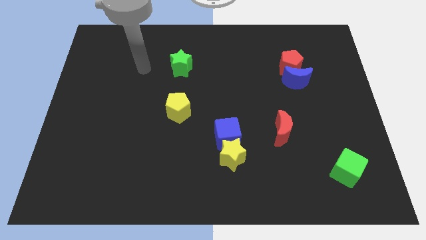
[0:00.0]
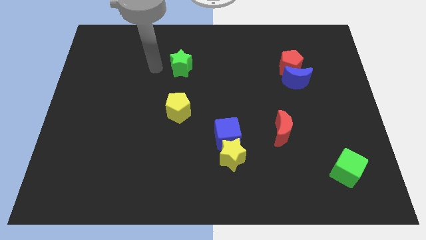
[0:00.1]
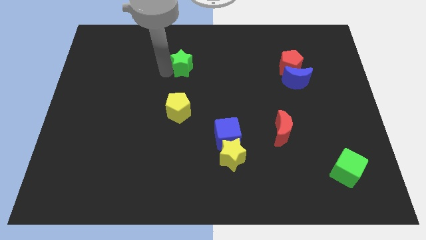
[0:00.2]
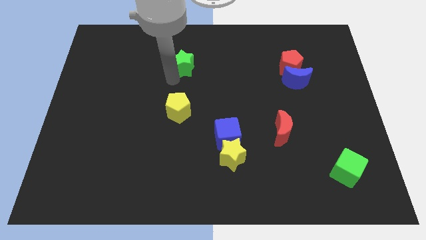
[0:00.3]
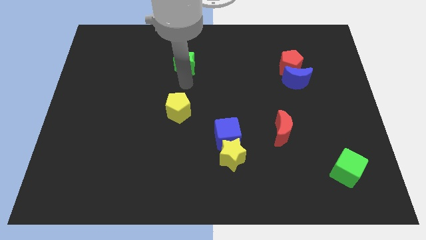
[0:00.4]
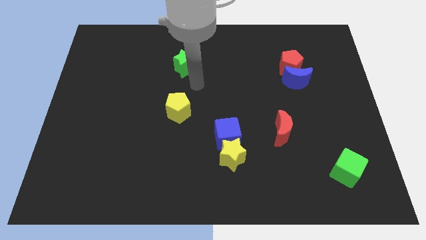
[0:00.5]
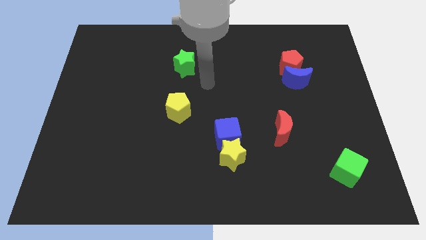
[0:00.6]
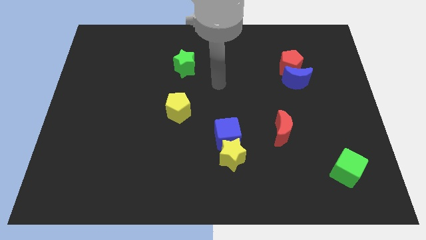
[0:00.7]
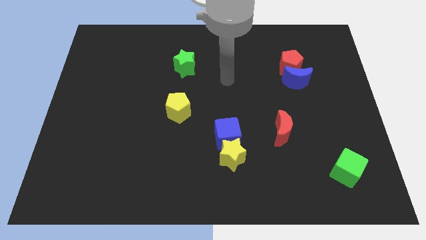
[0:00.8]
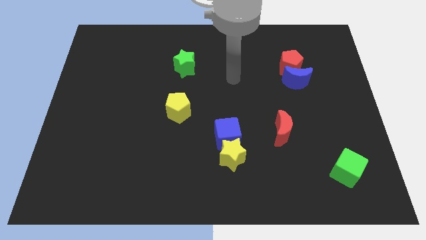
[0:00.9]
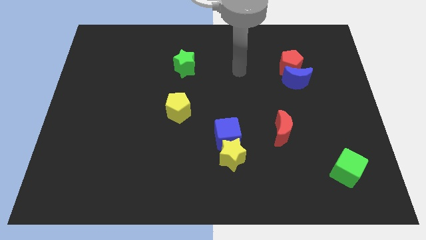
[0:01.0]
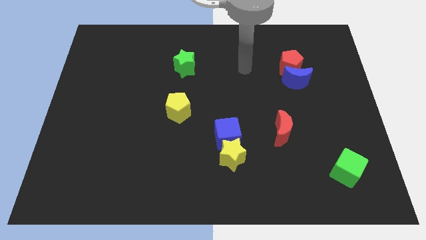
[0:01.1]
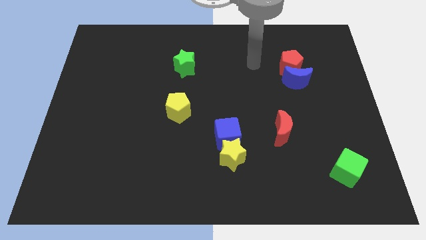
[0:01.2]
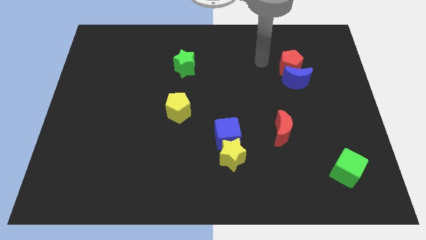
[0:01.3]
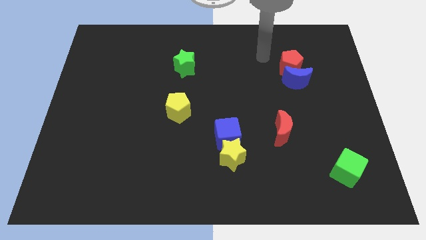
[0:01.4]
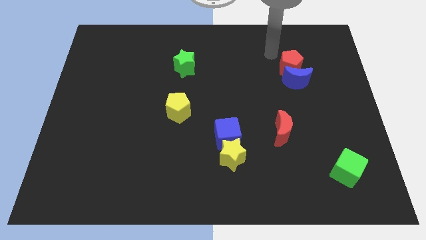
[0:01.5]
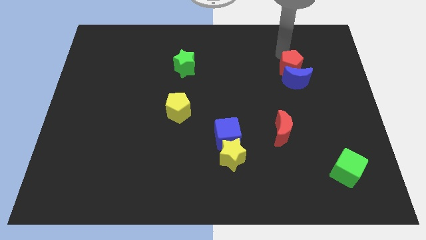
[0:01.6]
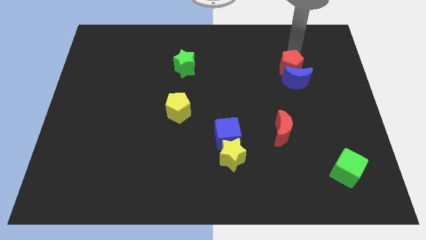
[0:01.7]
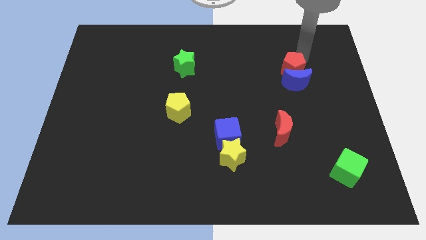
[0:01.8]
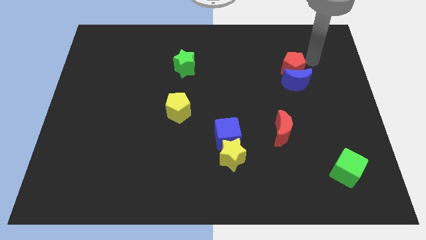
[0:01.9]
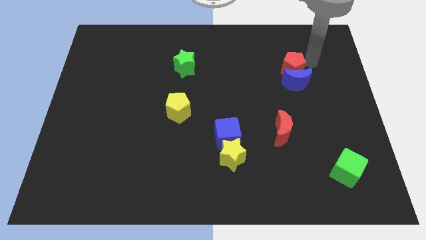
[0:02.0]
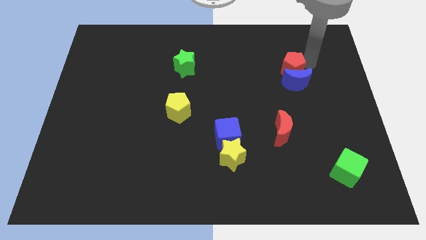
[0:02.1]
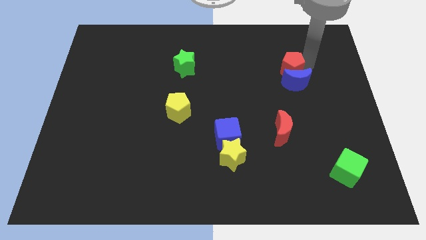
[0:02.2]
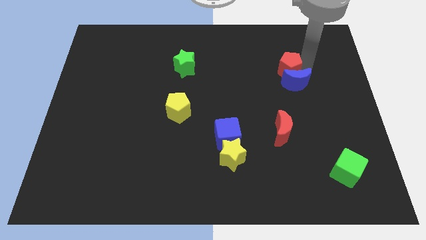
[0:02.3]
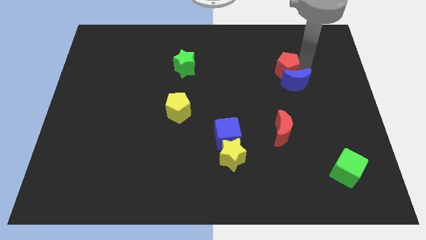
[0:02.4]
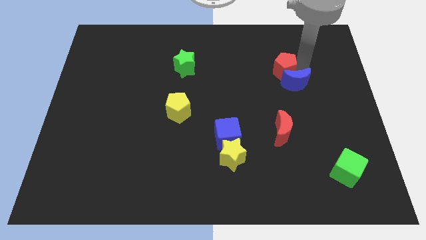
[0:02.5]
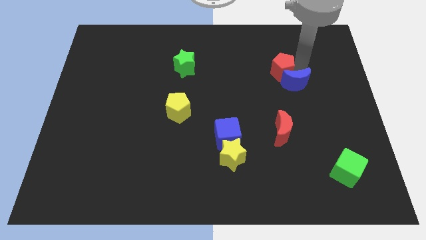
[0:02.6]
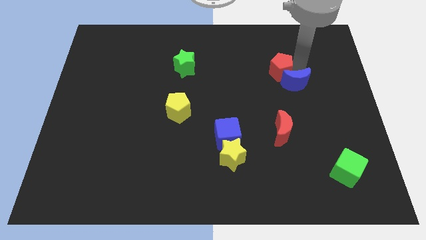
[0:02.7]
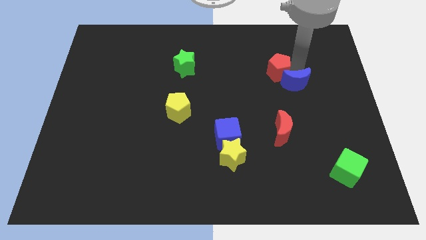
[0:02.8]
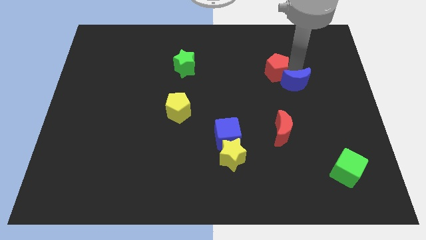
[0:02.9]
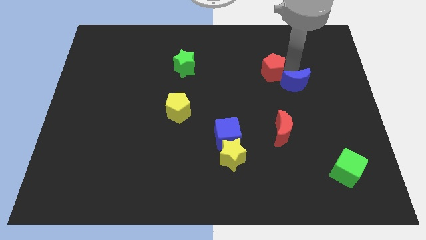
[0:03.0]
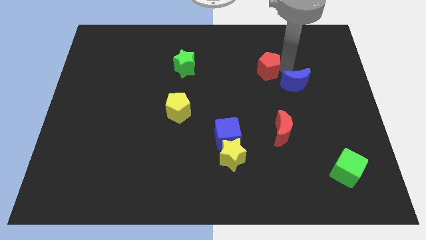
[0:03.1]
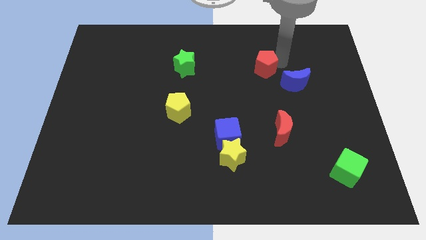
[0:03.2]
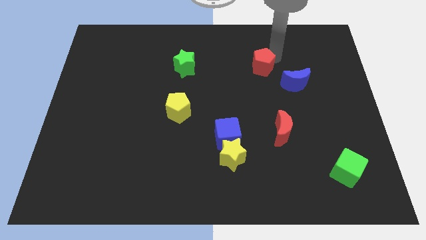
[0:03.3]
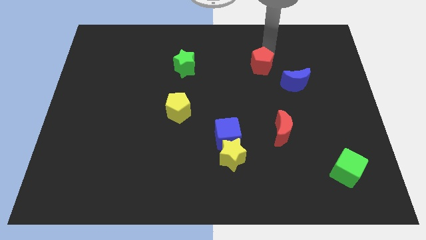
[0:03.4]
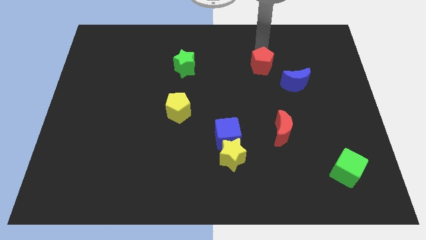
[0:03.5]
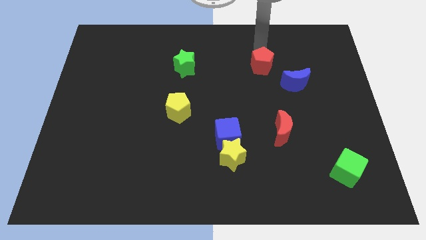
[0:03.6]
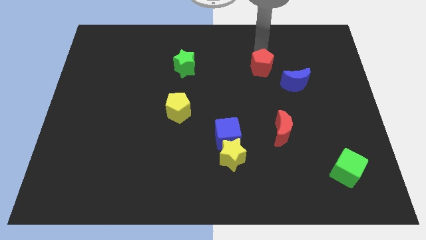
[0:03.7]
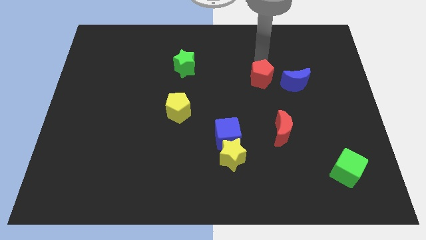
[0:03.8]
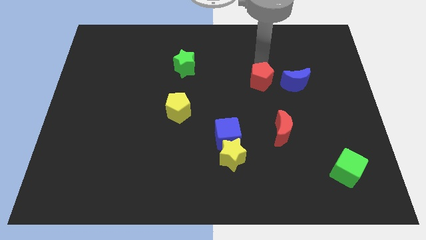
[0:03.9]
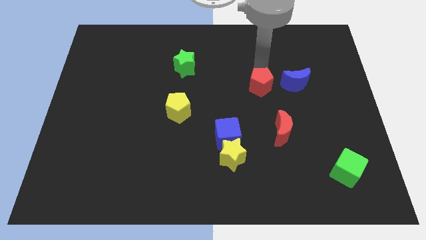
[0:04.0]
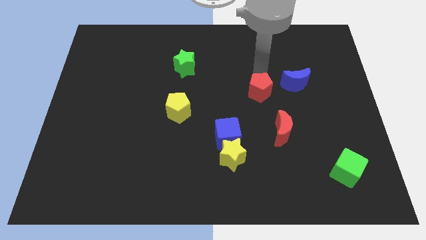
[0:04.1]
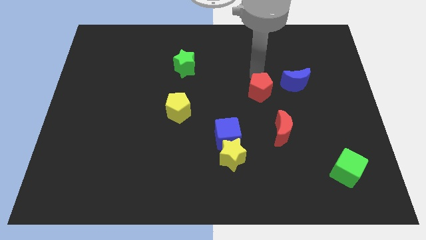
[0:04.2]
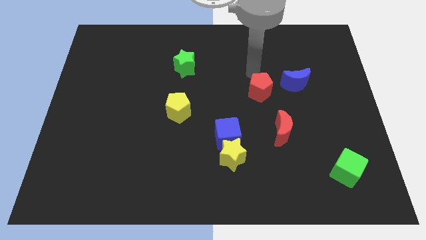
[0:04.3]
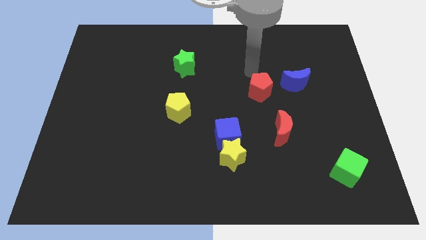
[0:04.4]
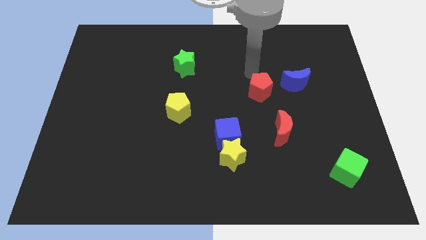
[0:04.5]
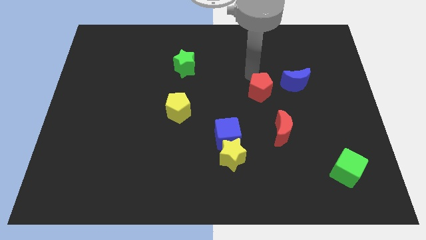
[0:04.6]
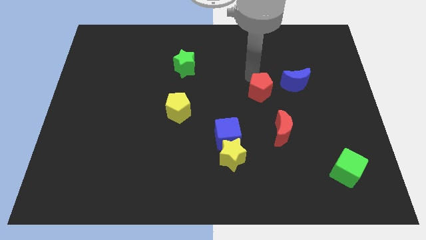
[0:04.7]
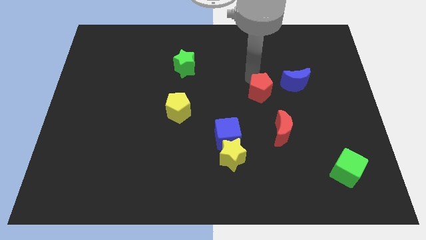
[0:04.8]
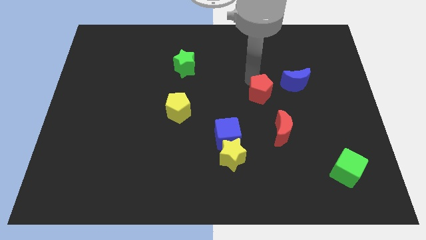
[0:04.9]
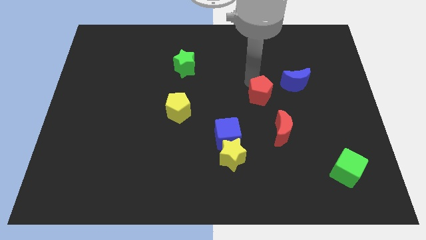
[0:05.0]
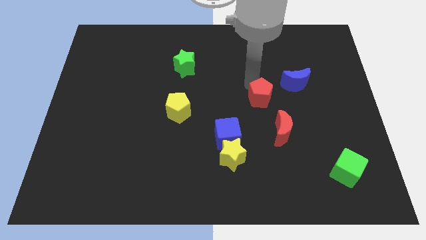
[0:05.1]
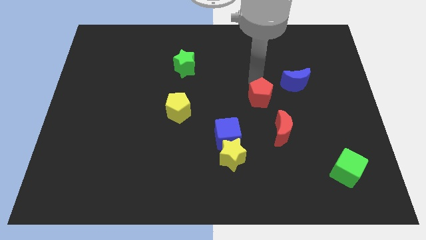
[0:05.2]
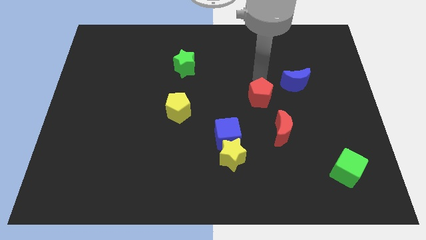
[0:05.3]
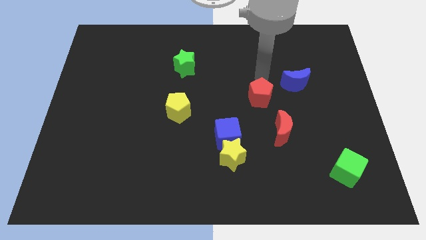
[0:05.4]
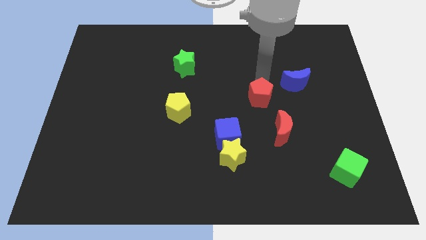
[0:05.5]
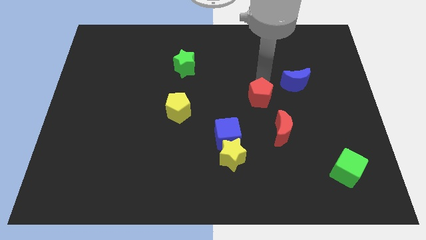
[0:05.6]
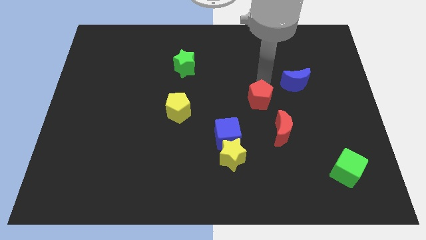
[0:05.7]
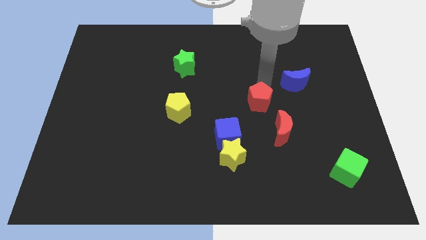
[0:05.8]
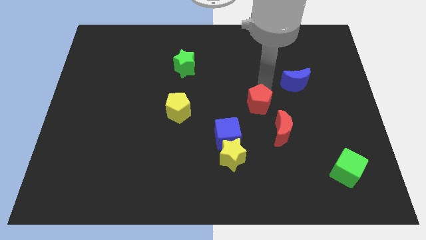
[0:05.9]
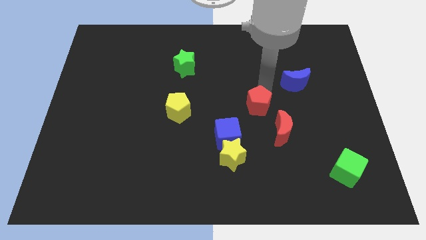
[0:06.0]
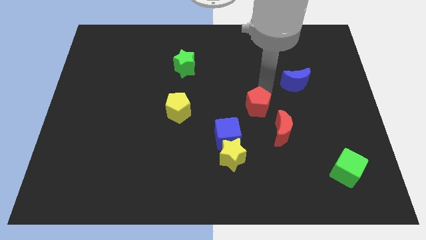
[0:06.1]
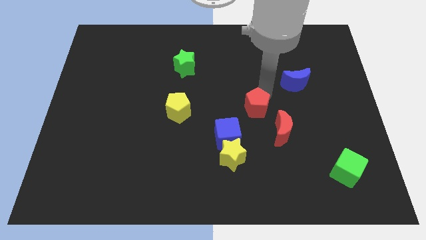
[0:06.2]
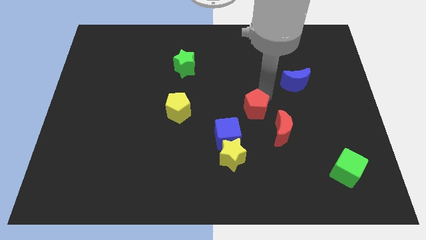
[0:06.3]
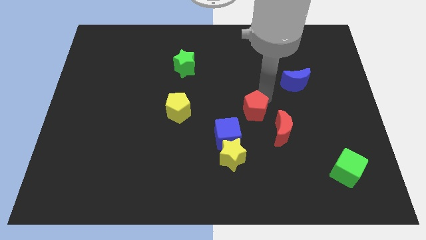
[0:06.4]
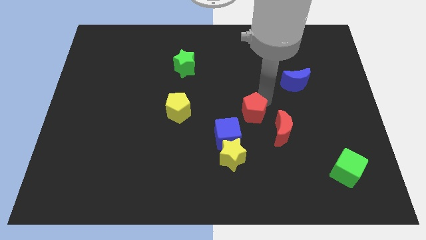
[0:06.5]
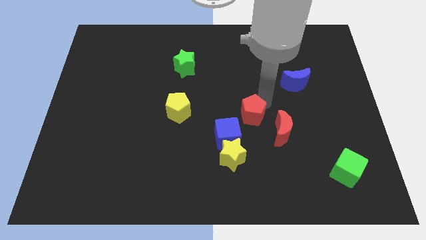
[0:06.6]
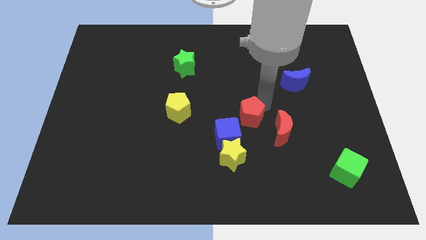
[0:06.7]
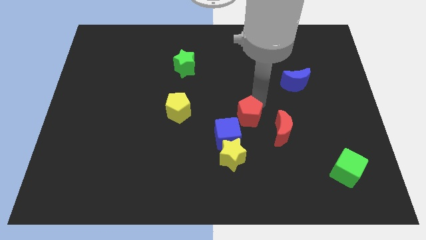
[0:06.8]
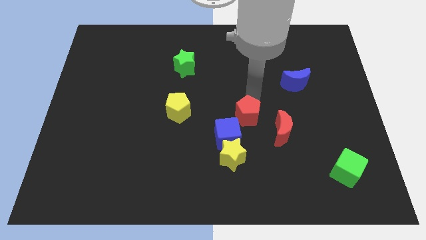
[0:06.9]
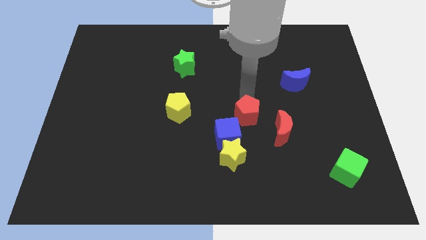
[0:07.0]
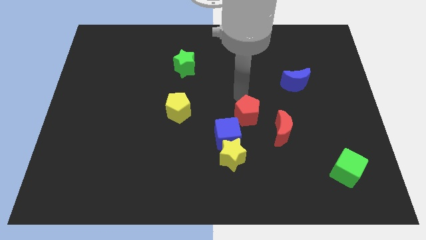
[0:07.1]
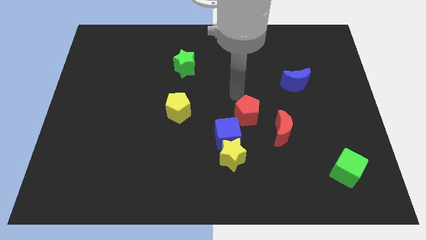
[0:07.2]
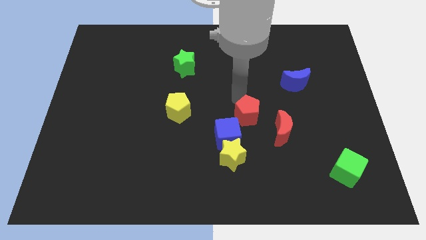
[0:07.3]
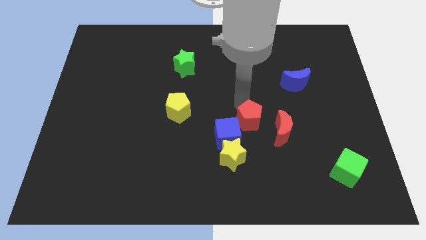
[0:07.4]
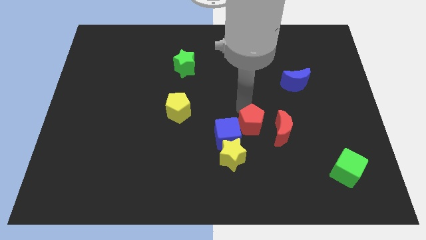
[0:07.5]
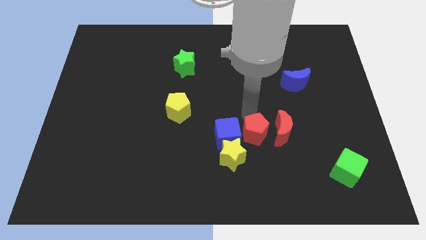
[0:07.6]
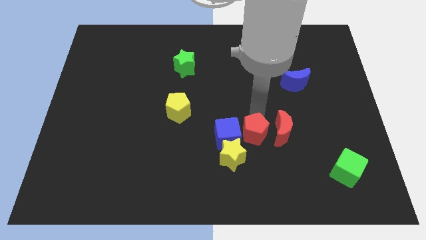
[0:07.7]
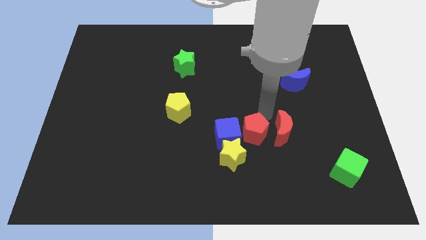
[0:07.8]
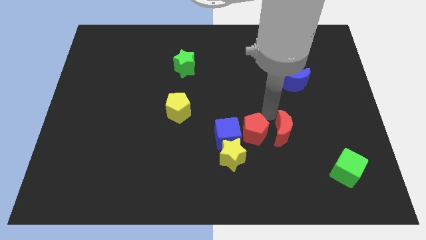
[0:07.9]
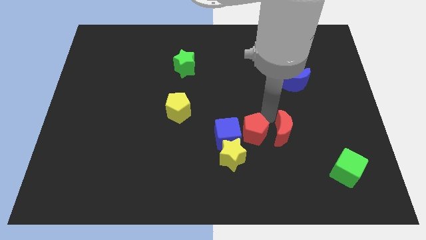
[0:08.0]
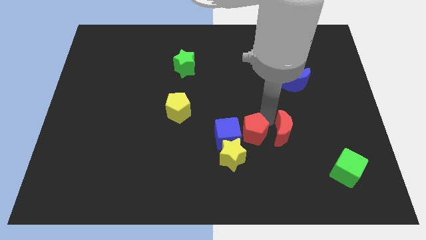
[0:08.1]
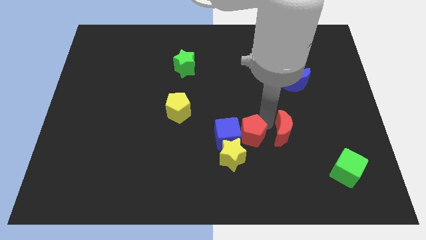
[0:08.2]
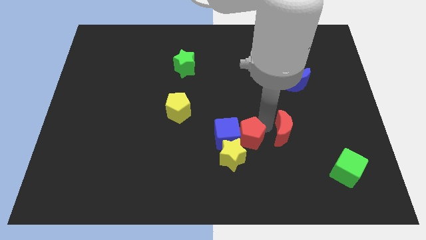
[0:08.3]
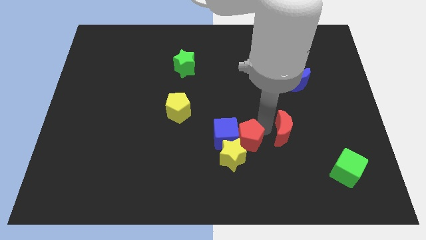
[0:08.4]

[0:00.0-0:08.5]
put the red pentagon next to the yellow star
